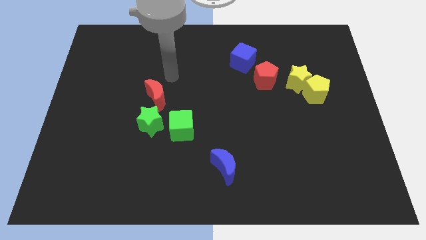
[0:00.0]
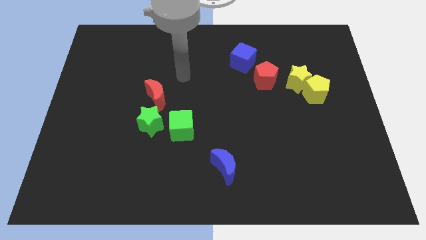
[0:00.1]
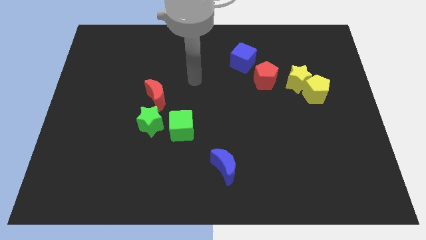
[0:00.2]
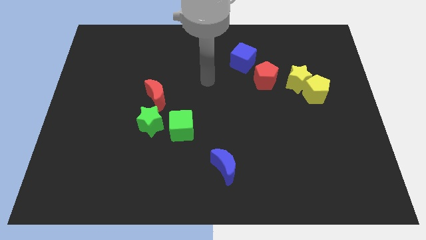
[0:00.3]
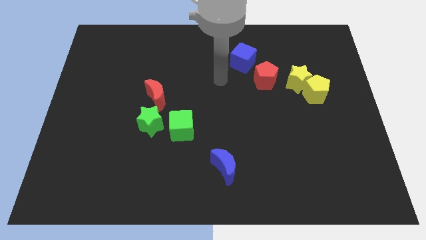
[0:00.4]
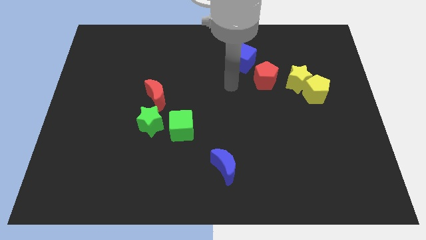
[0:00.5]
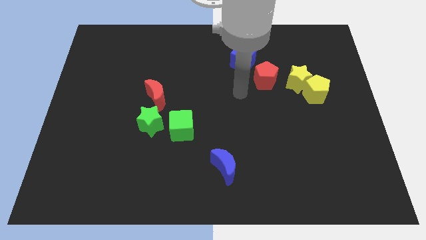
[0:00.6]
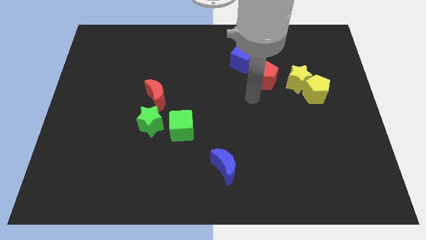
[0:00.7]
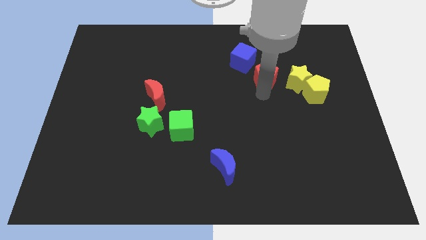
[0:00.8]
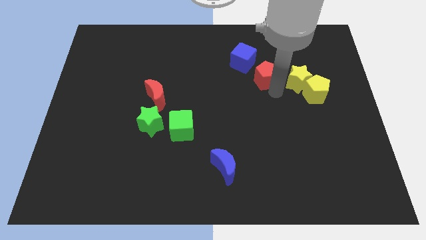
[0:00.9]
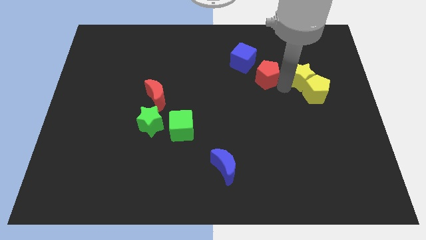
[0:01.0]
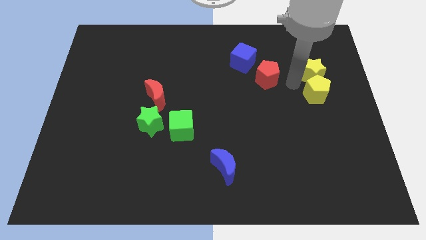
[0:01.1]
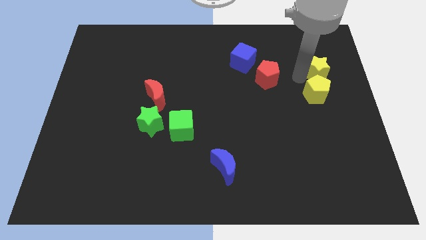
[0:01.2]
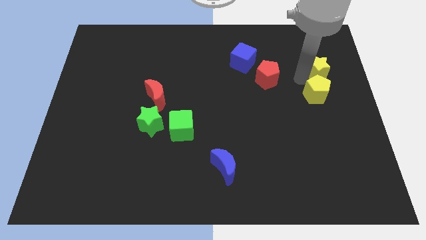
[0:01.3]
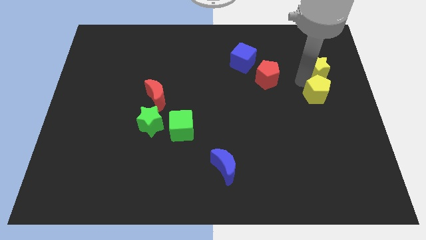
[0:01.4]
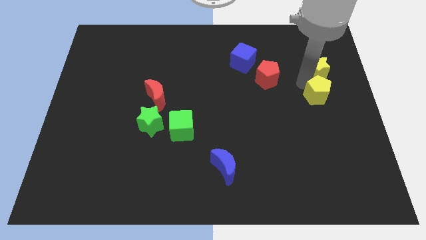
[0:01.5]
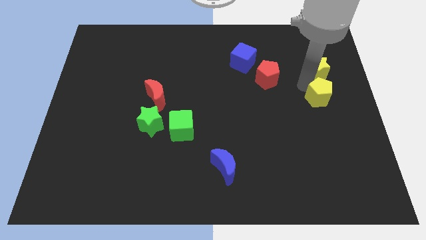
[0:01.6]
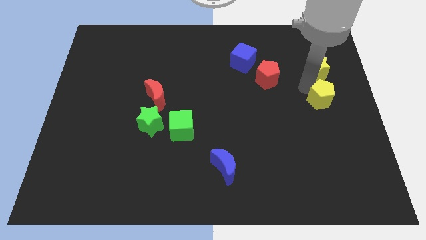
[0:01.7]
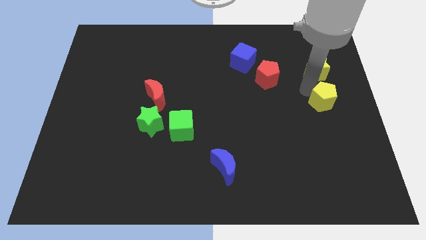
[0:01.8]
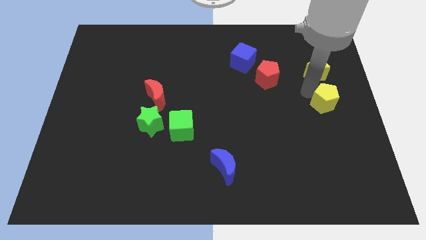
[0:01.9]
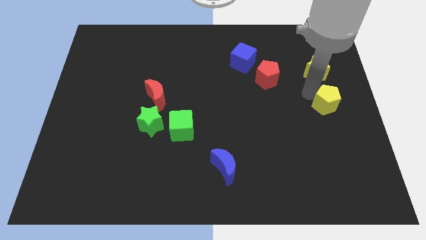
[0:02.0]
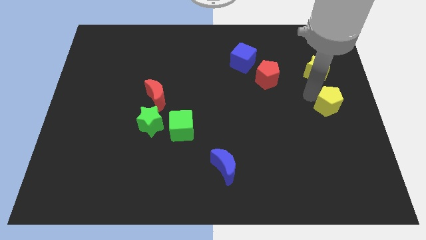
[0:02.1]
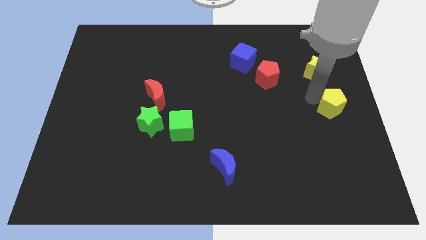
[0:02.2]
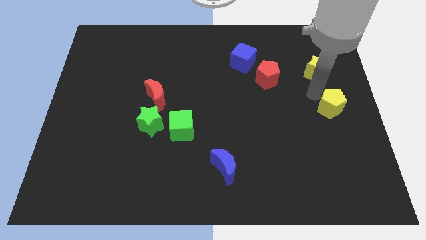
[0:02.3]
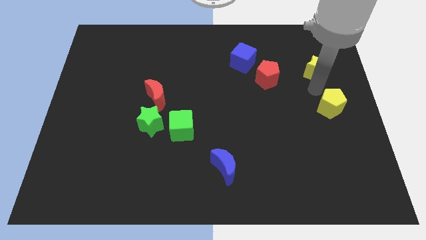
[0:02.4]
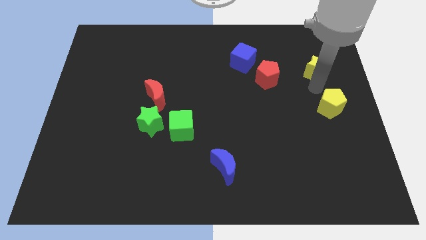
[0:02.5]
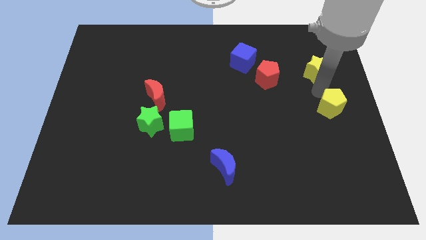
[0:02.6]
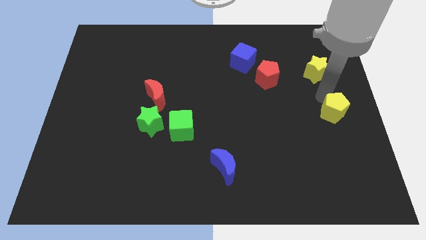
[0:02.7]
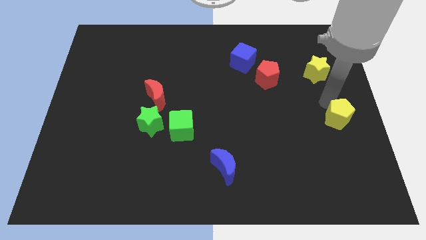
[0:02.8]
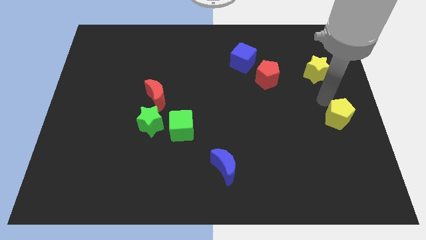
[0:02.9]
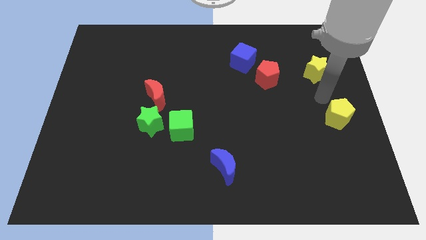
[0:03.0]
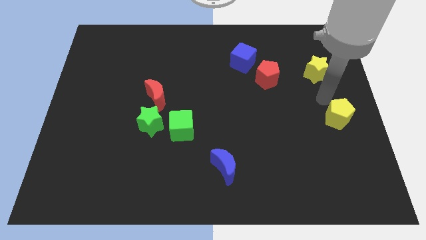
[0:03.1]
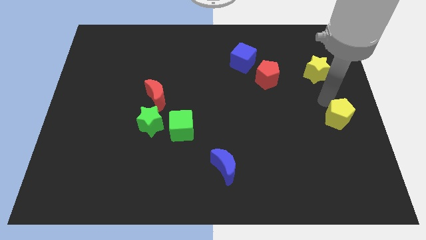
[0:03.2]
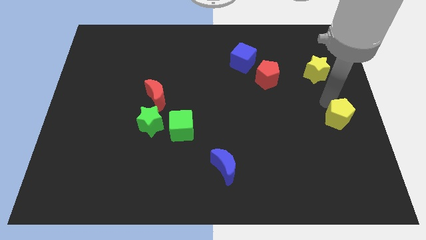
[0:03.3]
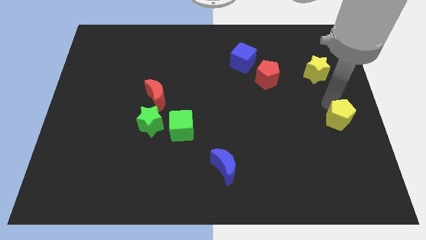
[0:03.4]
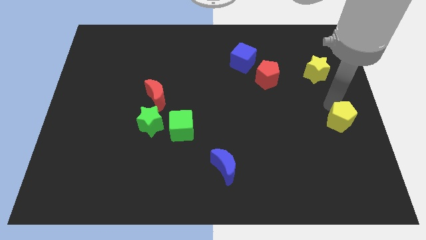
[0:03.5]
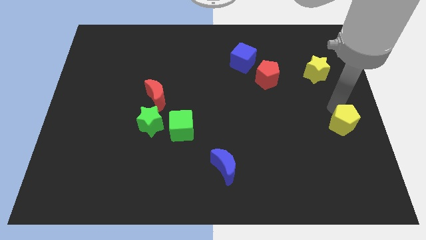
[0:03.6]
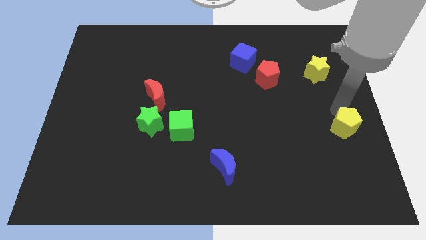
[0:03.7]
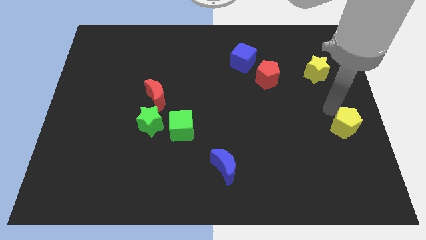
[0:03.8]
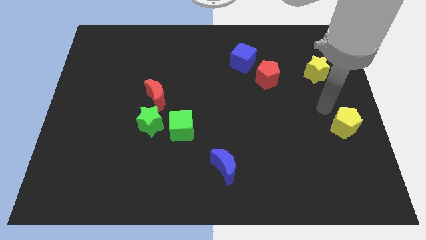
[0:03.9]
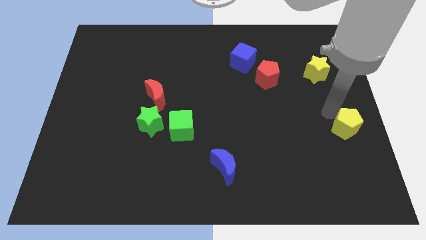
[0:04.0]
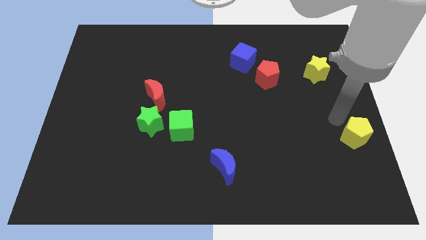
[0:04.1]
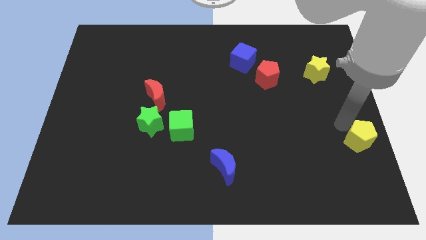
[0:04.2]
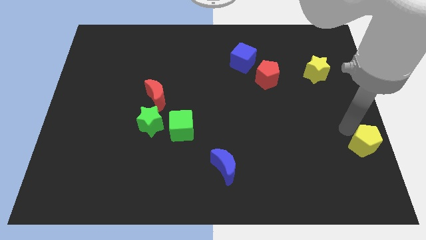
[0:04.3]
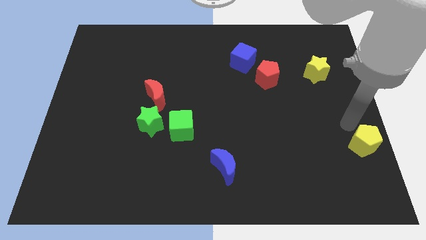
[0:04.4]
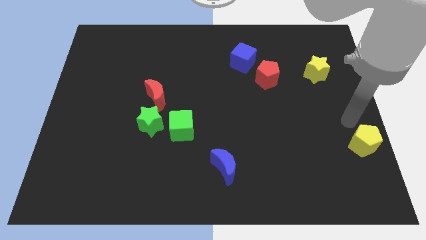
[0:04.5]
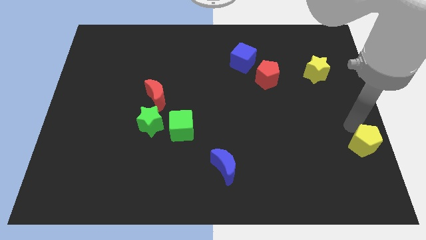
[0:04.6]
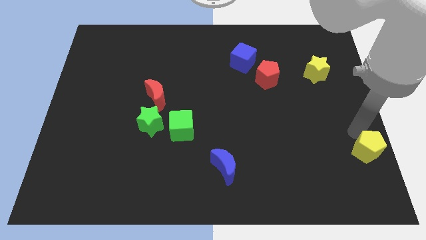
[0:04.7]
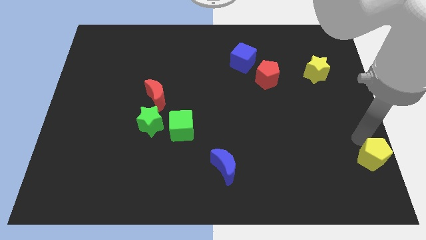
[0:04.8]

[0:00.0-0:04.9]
put the yellow pentagon to the bottom right of the board

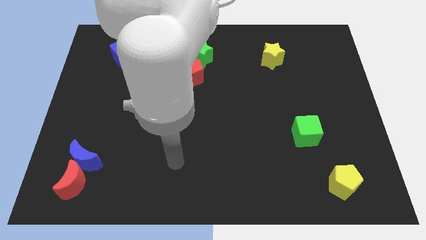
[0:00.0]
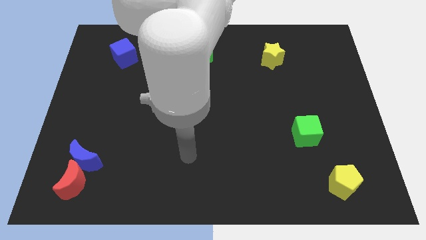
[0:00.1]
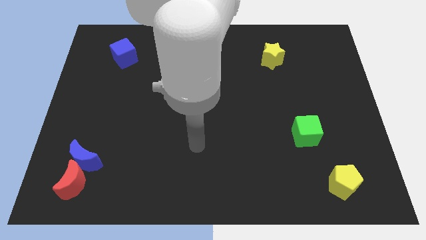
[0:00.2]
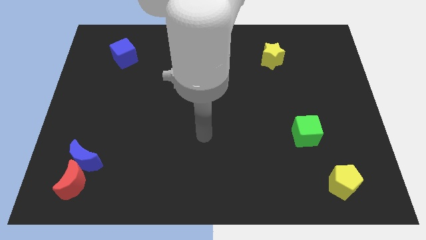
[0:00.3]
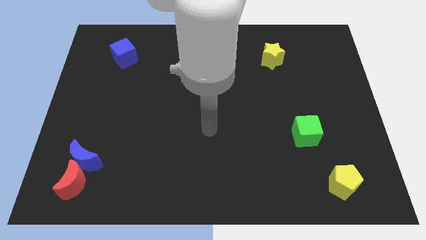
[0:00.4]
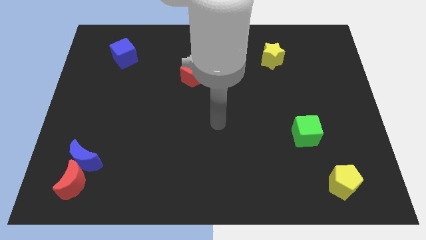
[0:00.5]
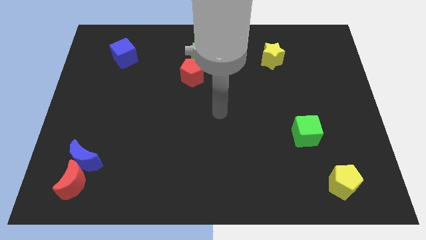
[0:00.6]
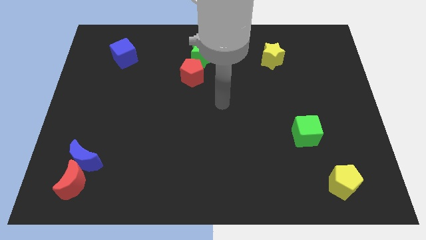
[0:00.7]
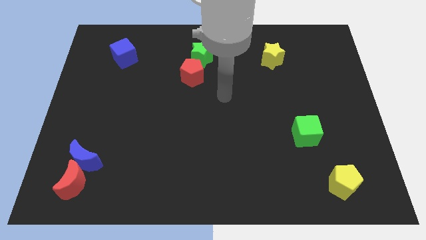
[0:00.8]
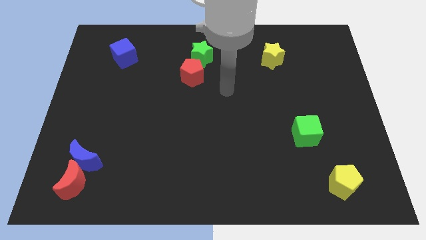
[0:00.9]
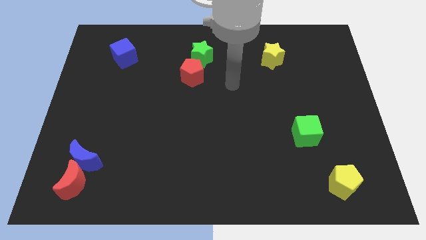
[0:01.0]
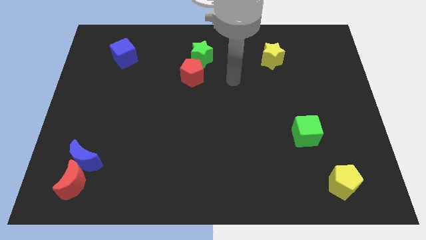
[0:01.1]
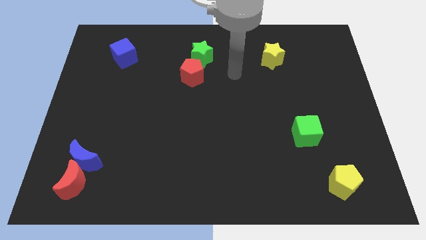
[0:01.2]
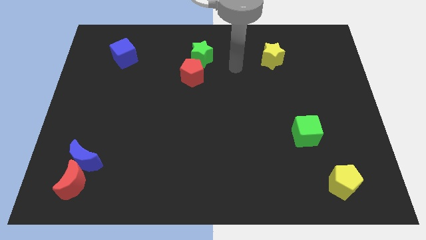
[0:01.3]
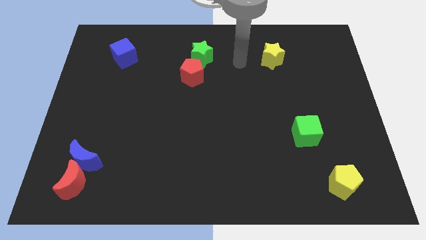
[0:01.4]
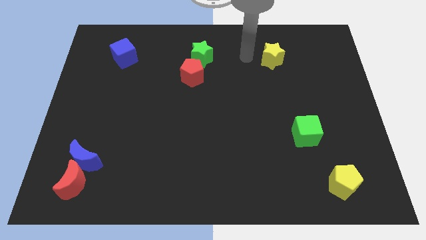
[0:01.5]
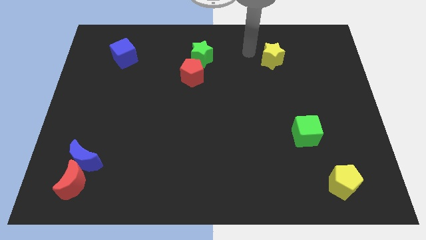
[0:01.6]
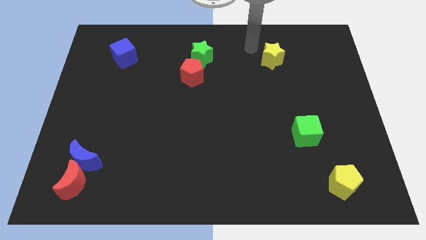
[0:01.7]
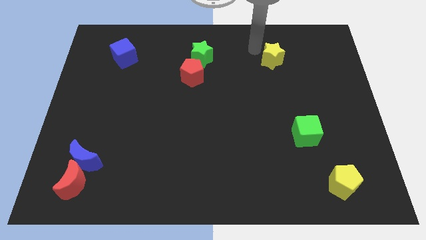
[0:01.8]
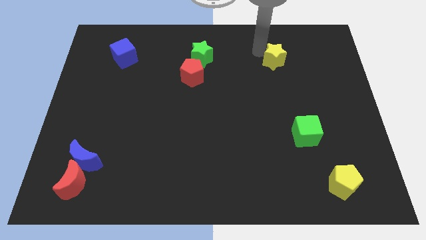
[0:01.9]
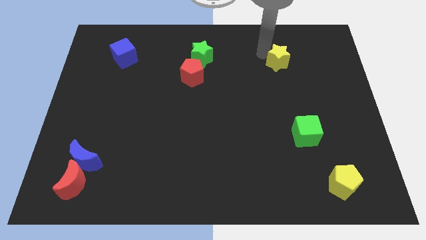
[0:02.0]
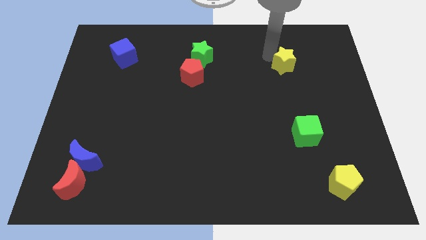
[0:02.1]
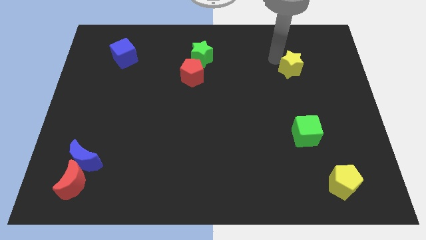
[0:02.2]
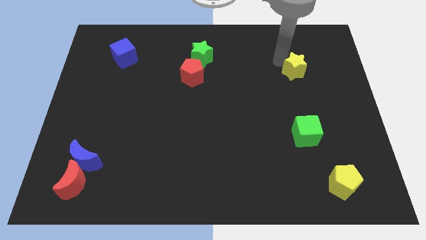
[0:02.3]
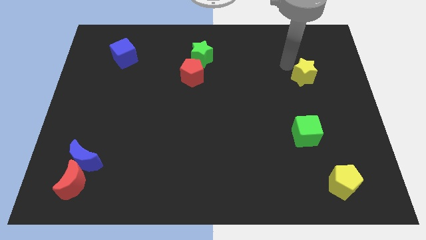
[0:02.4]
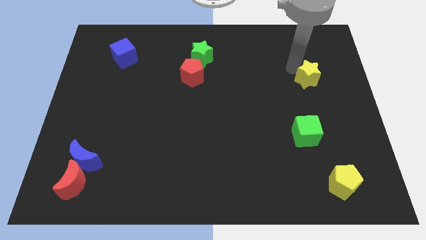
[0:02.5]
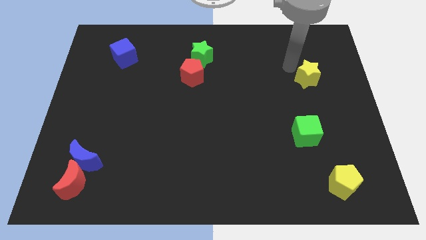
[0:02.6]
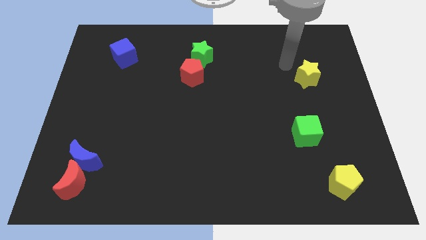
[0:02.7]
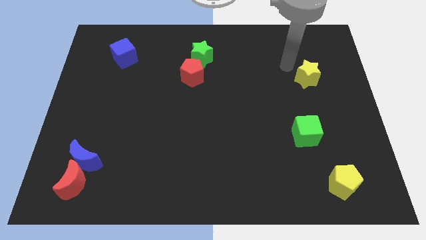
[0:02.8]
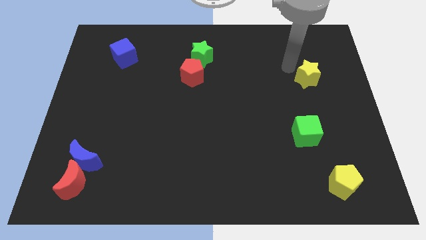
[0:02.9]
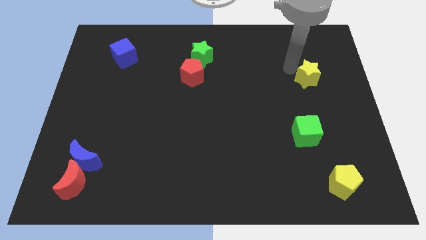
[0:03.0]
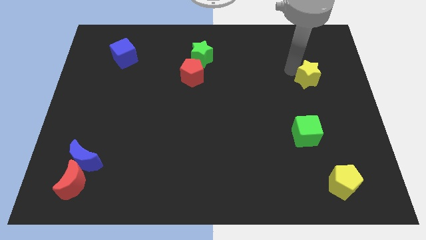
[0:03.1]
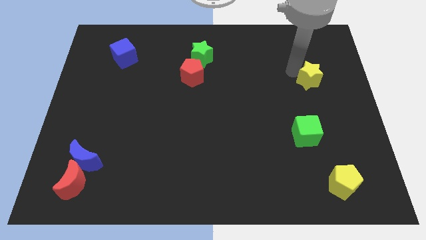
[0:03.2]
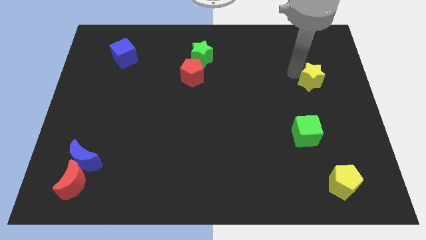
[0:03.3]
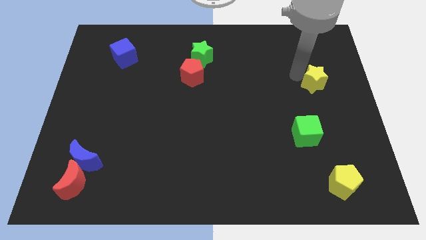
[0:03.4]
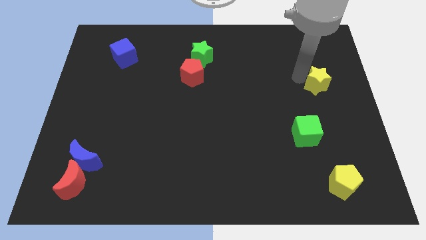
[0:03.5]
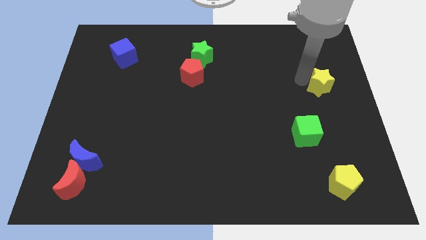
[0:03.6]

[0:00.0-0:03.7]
move the yellow star to the center right
